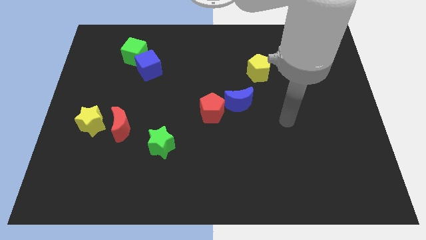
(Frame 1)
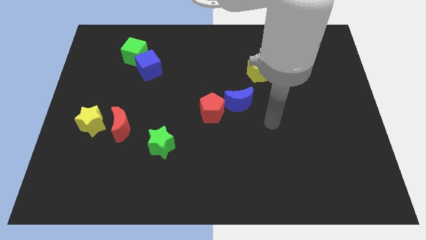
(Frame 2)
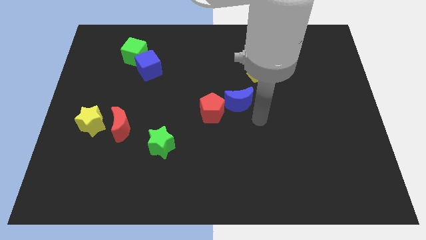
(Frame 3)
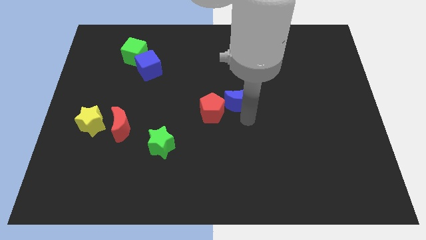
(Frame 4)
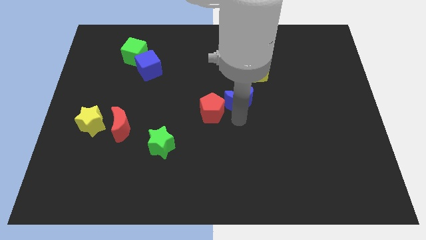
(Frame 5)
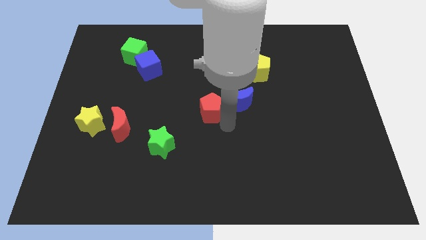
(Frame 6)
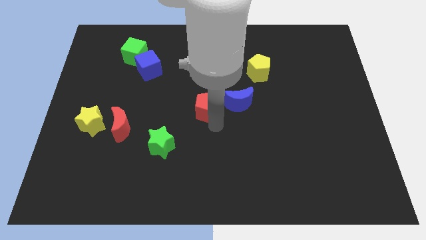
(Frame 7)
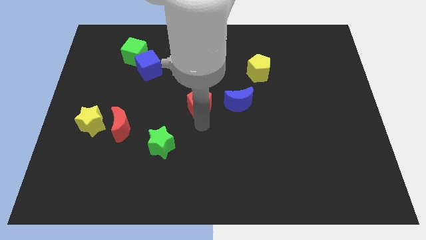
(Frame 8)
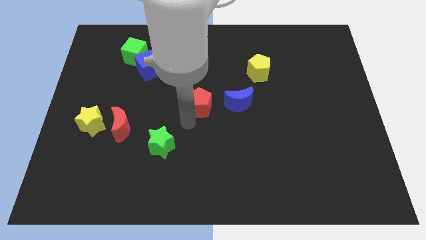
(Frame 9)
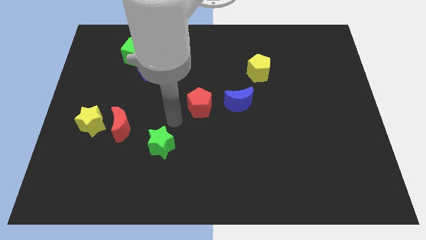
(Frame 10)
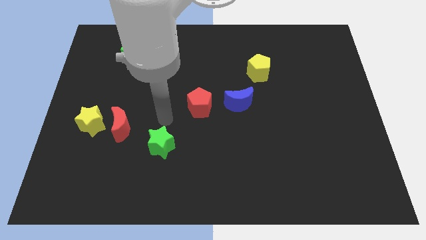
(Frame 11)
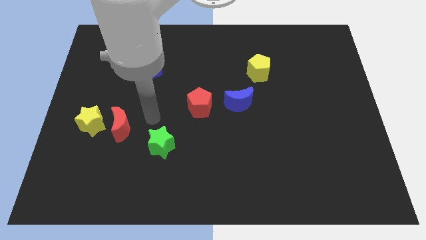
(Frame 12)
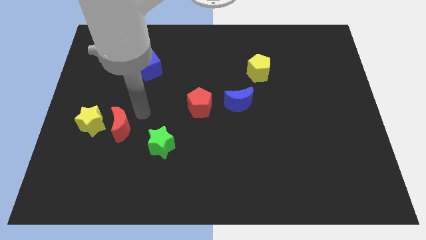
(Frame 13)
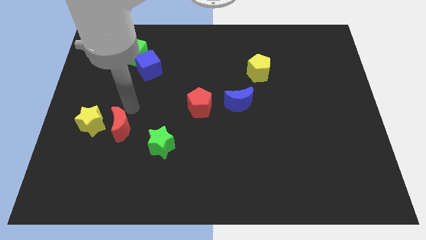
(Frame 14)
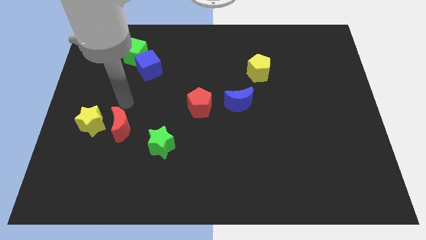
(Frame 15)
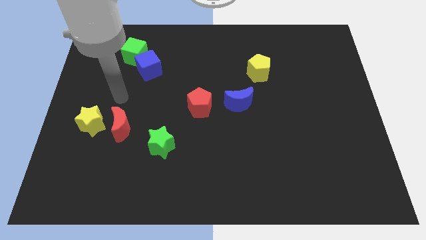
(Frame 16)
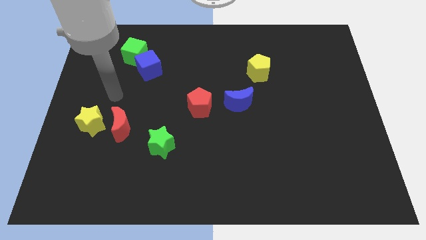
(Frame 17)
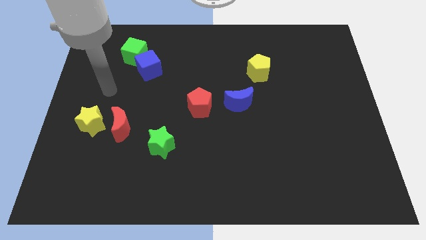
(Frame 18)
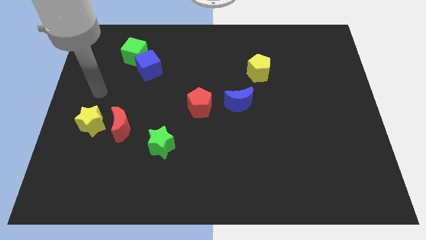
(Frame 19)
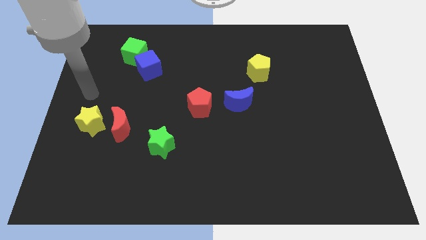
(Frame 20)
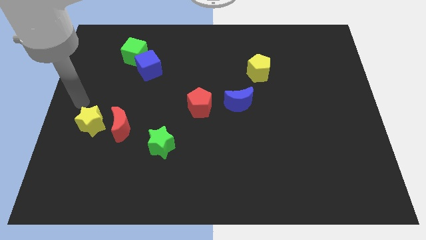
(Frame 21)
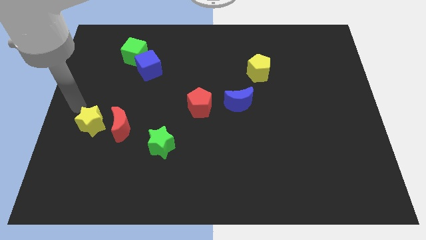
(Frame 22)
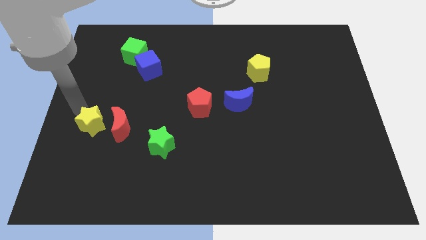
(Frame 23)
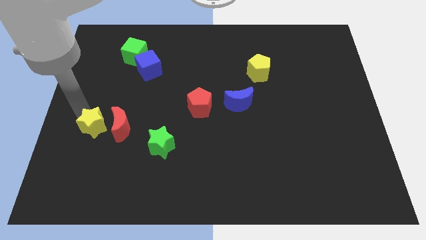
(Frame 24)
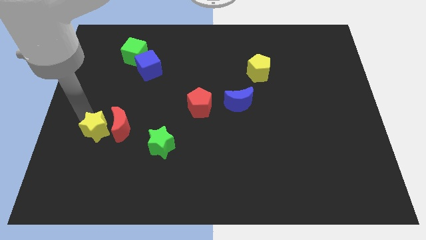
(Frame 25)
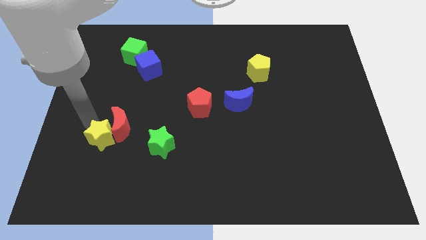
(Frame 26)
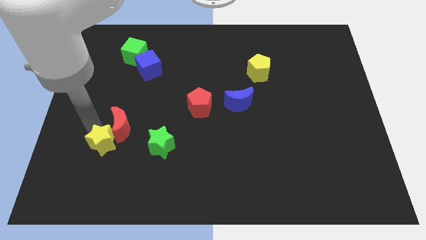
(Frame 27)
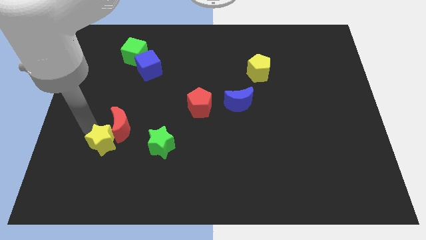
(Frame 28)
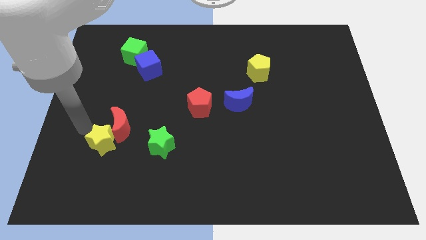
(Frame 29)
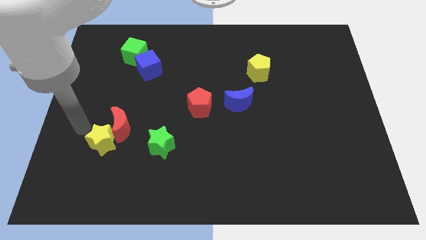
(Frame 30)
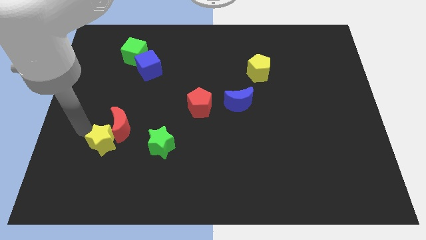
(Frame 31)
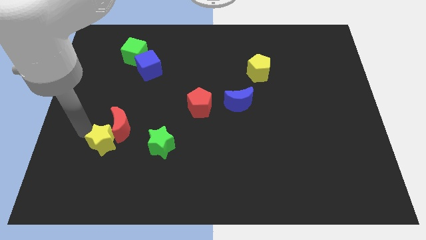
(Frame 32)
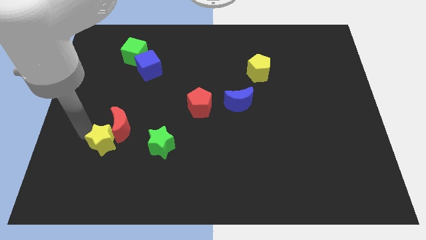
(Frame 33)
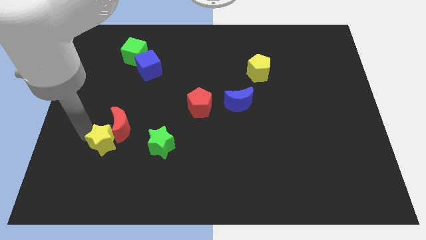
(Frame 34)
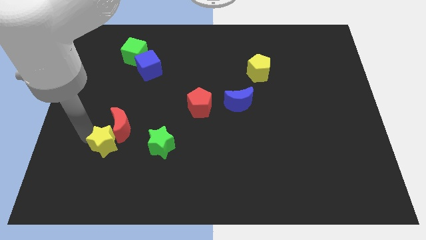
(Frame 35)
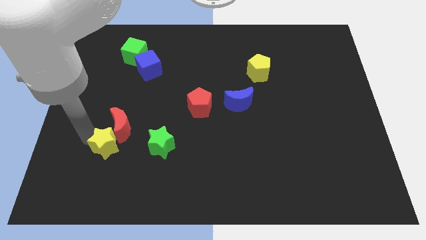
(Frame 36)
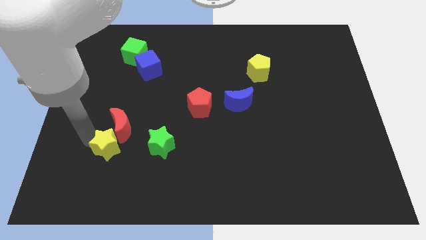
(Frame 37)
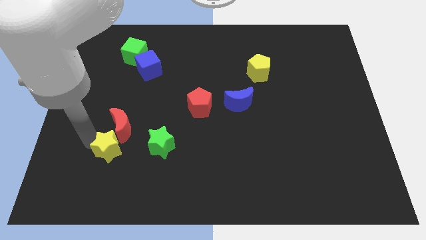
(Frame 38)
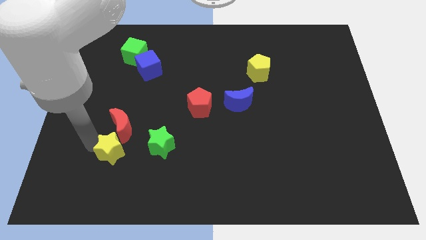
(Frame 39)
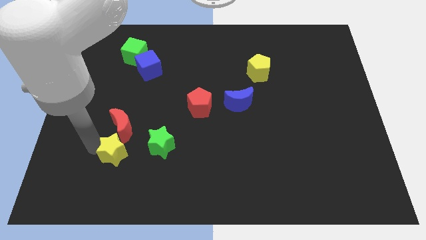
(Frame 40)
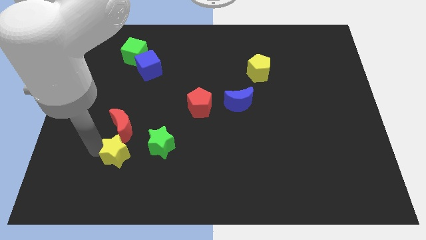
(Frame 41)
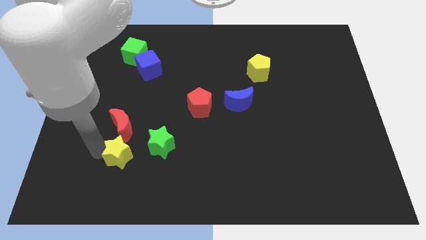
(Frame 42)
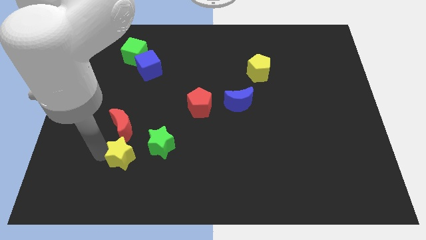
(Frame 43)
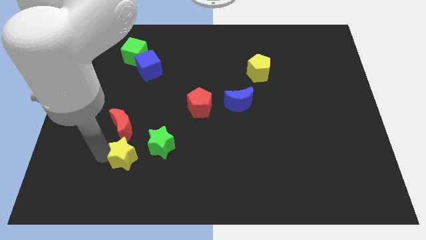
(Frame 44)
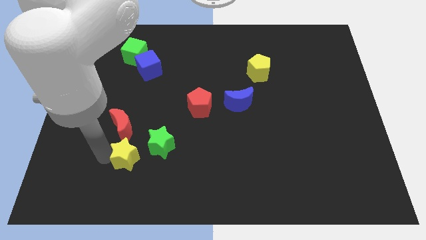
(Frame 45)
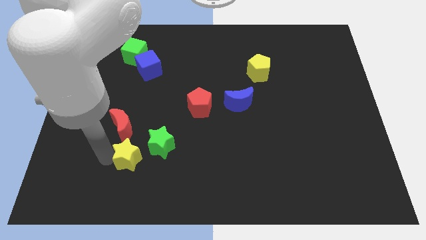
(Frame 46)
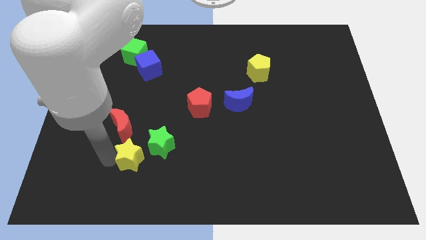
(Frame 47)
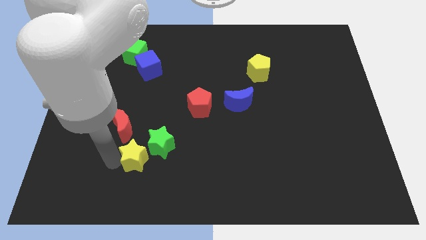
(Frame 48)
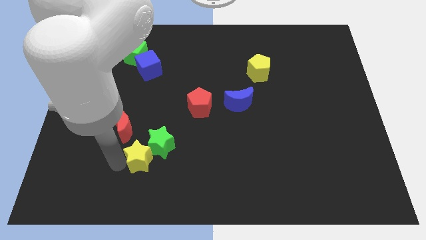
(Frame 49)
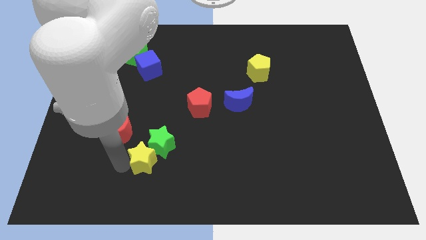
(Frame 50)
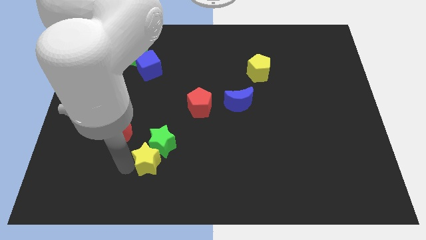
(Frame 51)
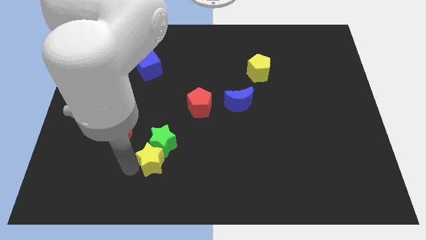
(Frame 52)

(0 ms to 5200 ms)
slide the yellow star to the bottom right side of the green star

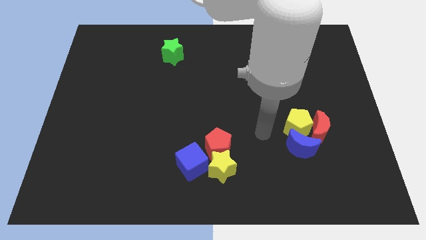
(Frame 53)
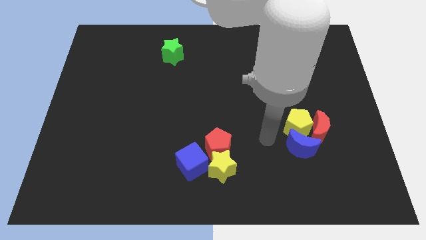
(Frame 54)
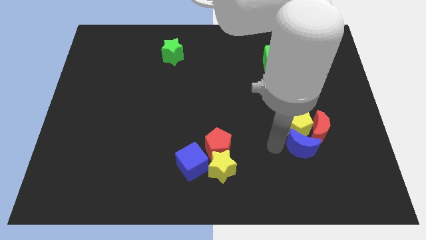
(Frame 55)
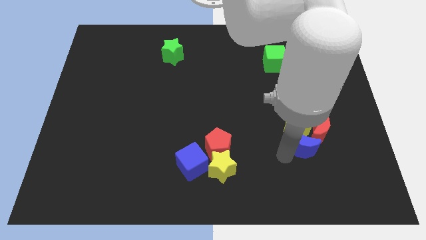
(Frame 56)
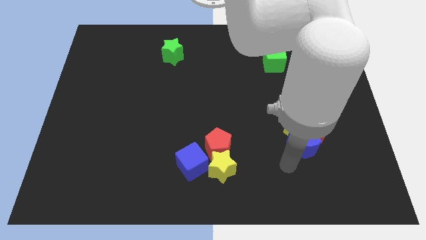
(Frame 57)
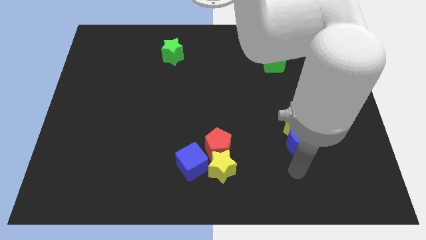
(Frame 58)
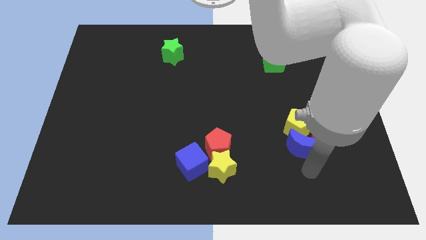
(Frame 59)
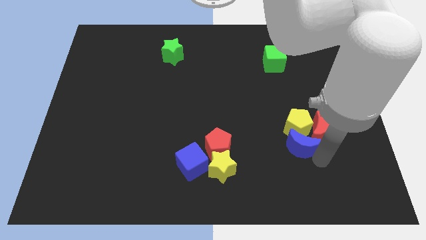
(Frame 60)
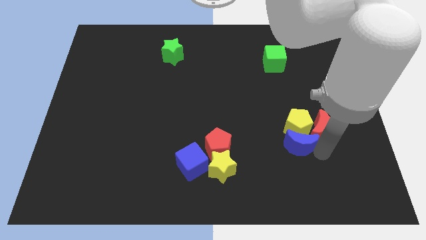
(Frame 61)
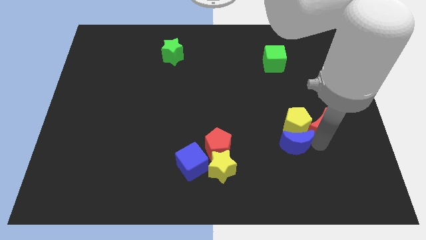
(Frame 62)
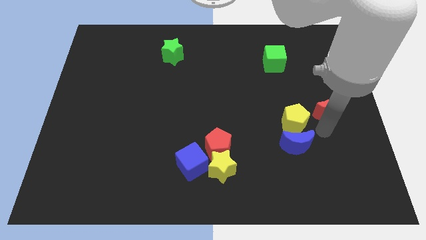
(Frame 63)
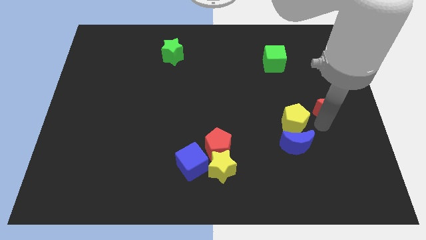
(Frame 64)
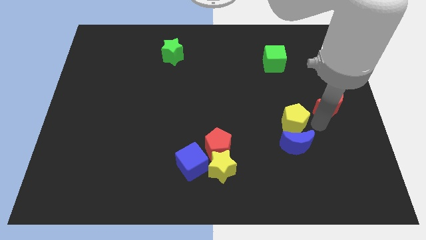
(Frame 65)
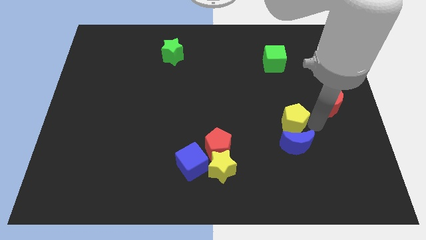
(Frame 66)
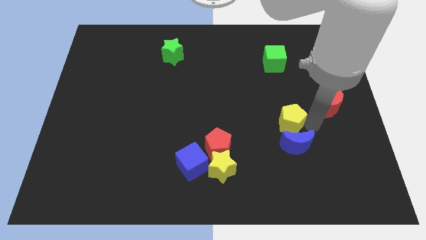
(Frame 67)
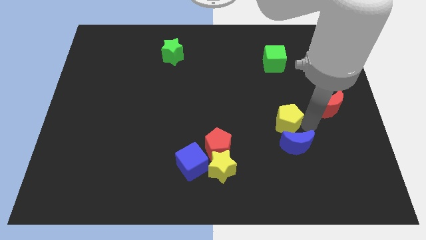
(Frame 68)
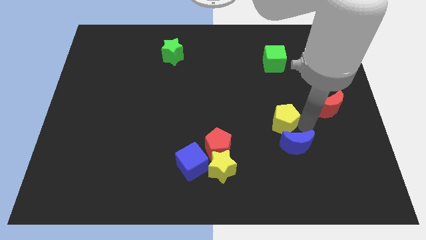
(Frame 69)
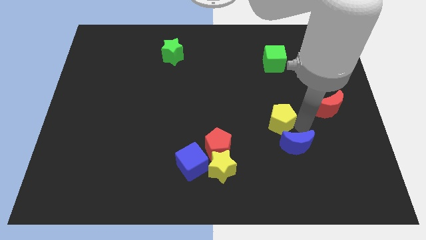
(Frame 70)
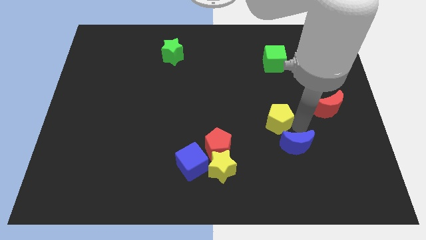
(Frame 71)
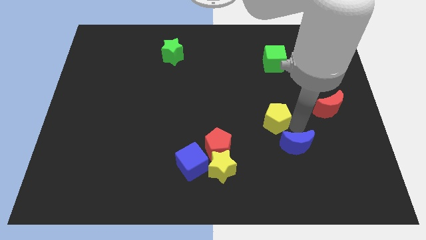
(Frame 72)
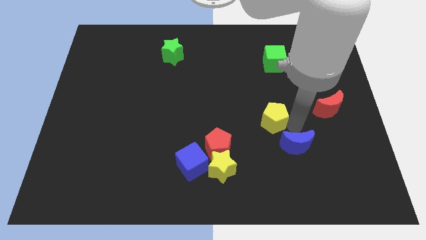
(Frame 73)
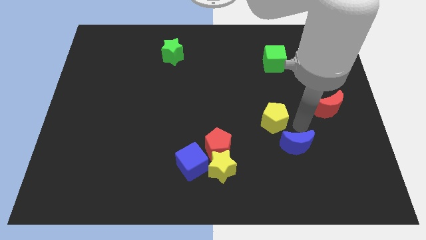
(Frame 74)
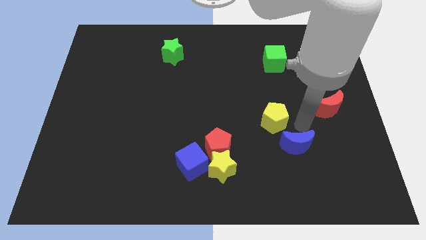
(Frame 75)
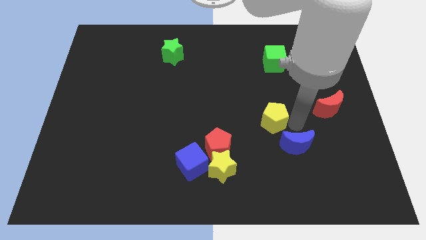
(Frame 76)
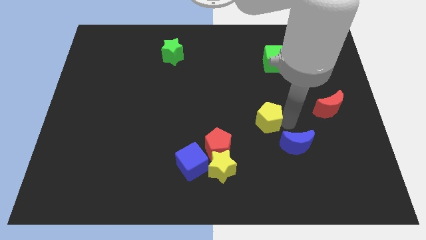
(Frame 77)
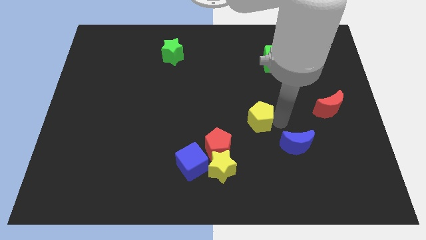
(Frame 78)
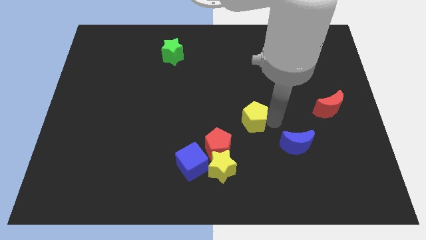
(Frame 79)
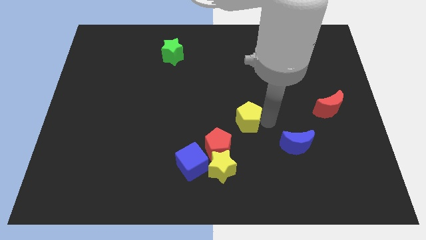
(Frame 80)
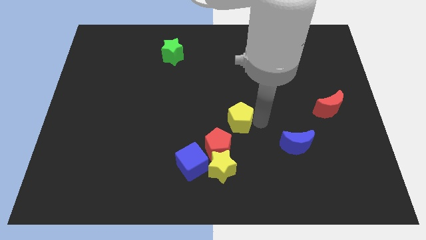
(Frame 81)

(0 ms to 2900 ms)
move the yellow pentagon above the red pentagon
